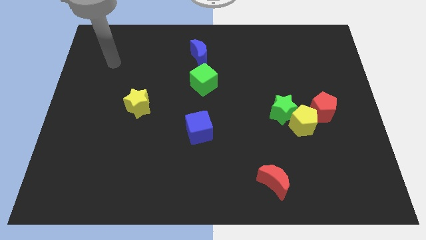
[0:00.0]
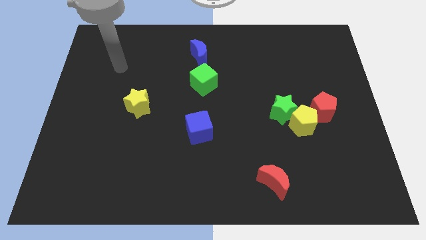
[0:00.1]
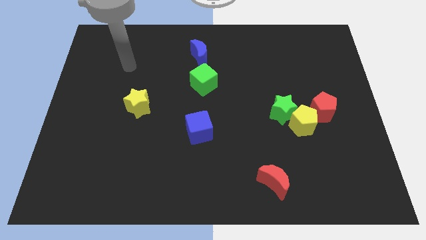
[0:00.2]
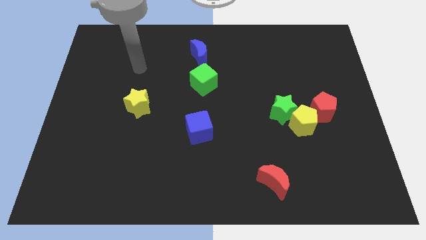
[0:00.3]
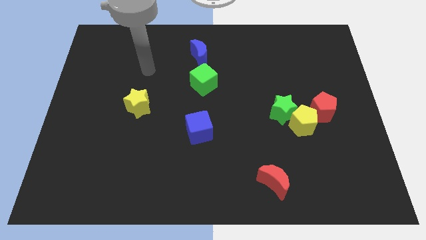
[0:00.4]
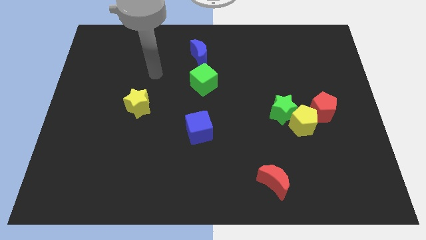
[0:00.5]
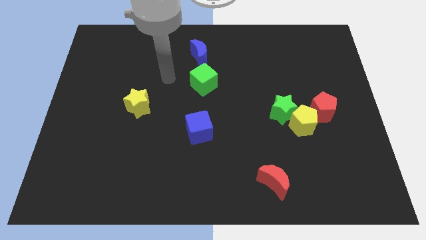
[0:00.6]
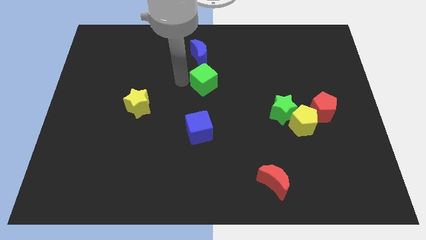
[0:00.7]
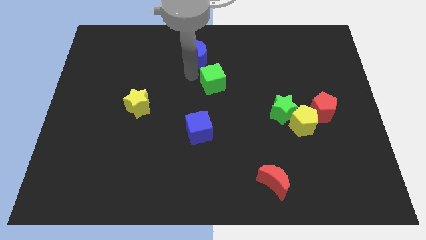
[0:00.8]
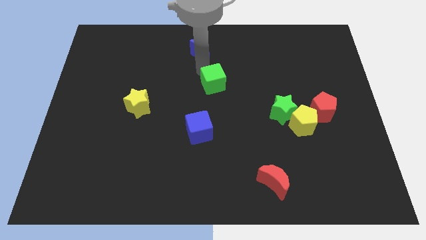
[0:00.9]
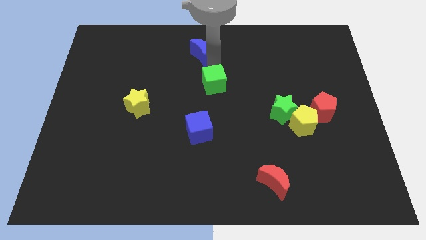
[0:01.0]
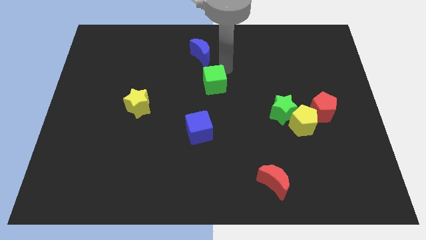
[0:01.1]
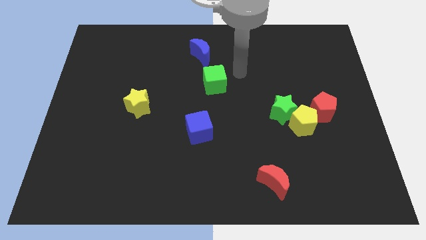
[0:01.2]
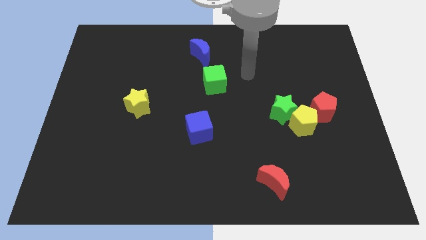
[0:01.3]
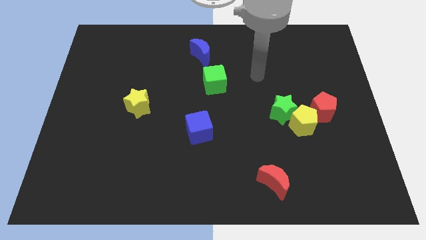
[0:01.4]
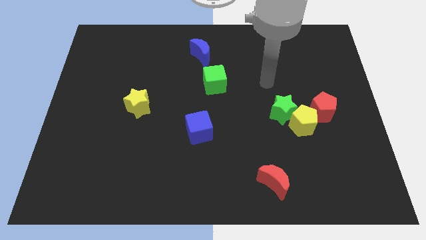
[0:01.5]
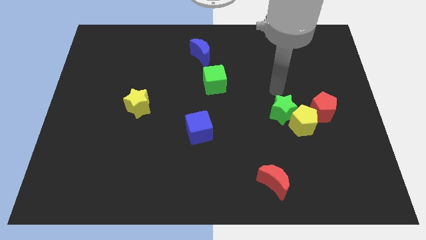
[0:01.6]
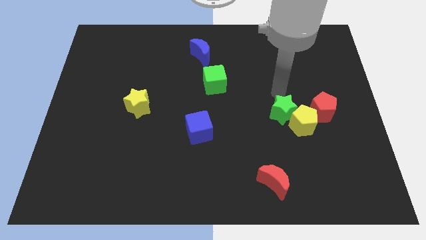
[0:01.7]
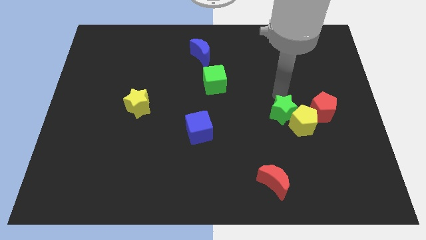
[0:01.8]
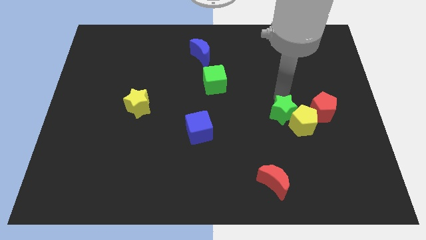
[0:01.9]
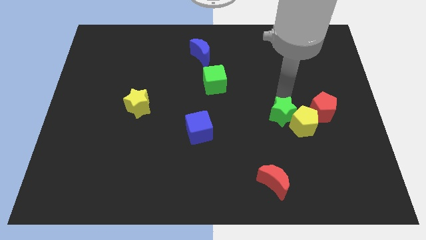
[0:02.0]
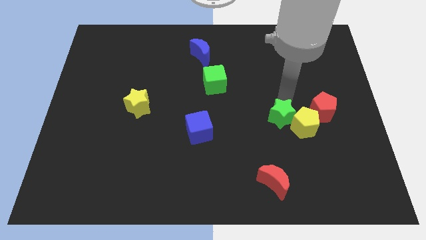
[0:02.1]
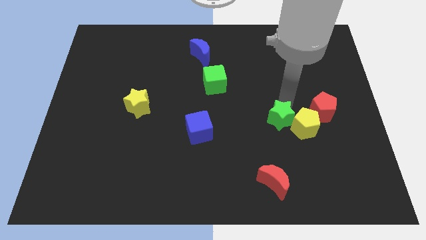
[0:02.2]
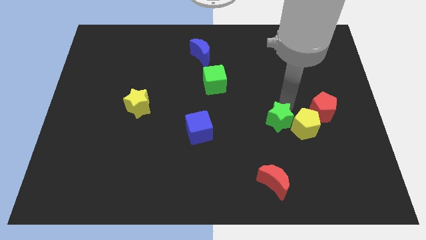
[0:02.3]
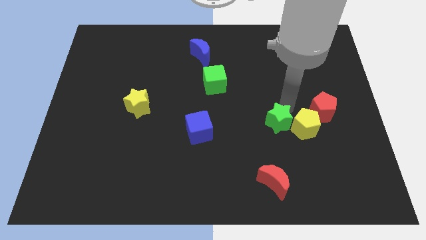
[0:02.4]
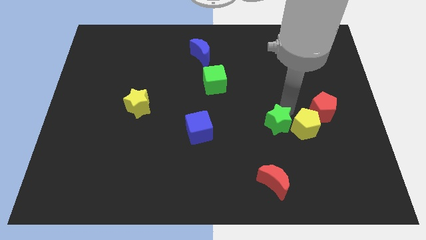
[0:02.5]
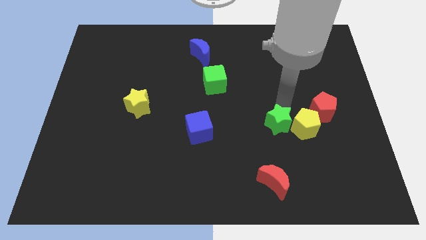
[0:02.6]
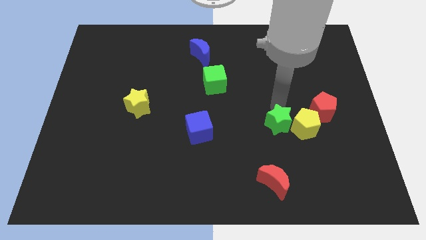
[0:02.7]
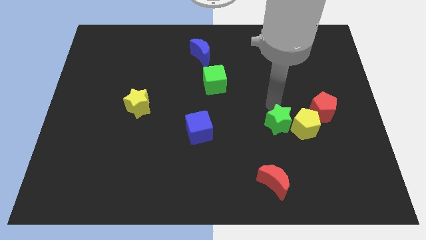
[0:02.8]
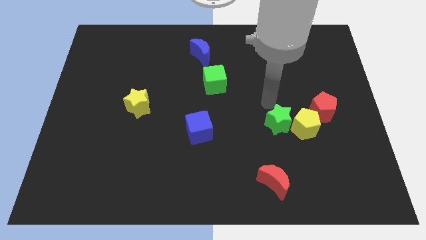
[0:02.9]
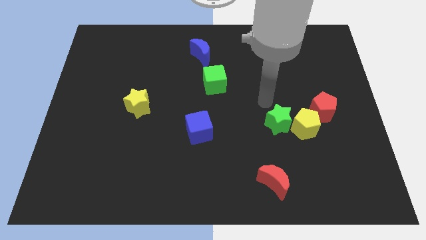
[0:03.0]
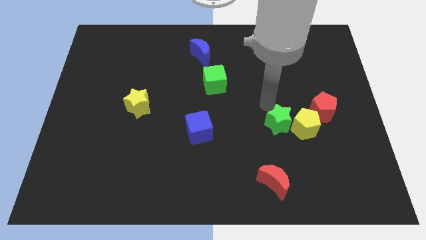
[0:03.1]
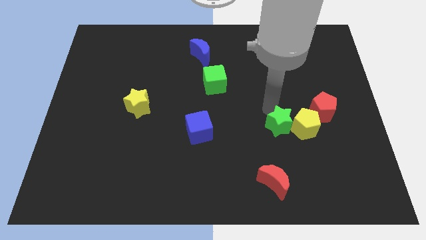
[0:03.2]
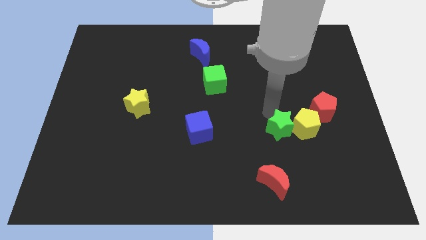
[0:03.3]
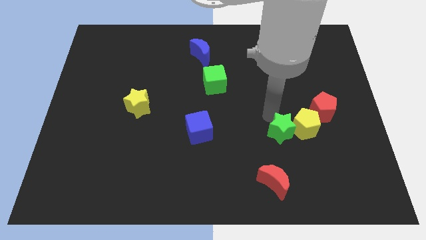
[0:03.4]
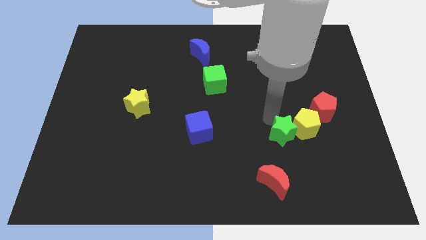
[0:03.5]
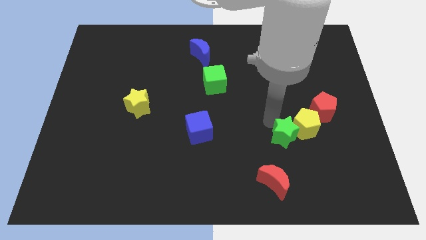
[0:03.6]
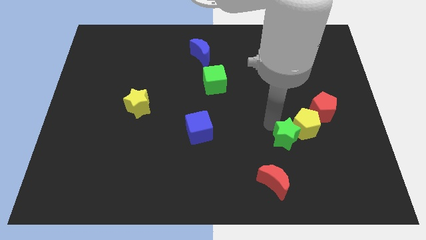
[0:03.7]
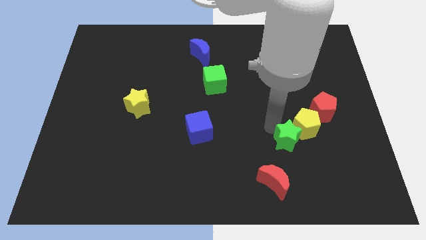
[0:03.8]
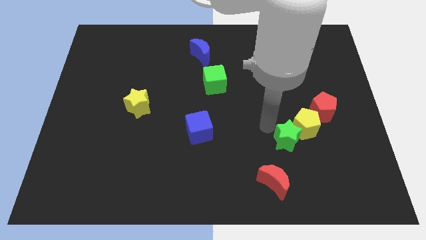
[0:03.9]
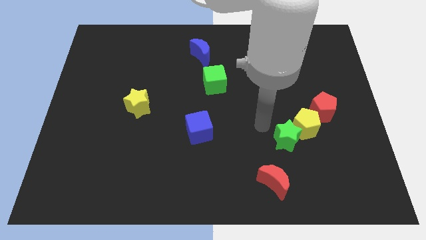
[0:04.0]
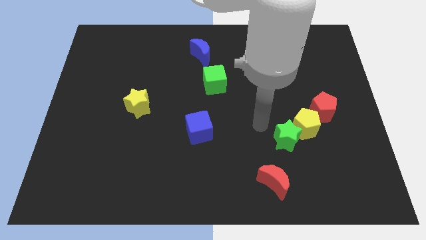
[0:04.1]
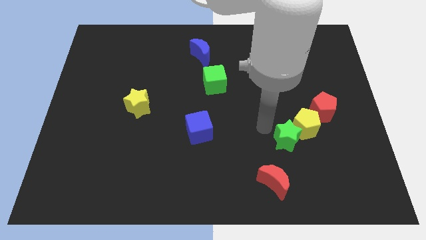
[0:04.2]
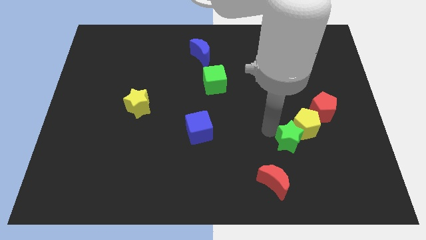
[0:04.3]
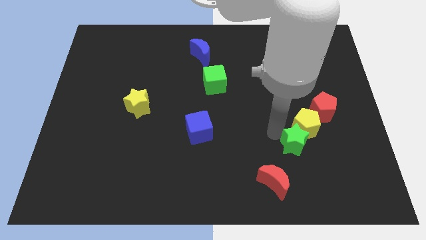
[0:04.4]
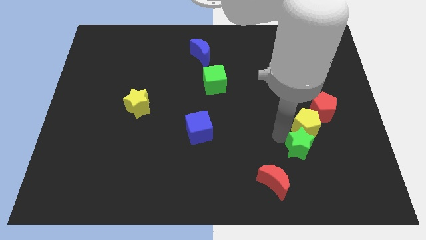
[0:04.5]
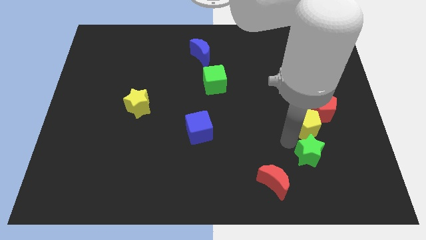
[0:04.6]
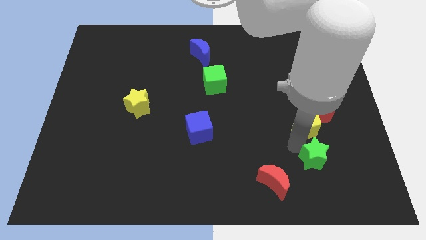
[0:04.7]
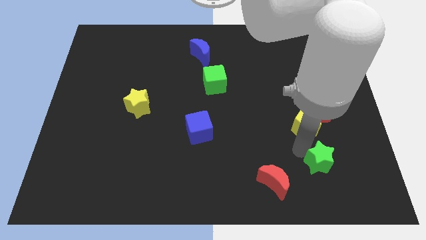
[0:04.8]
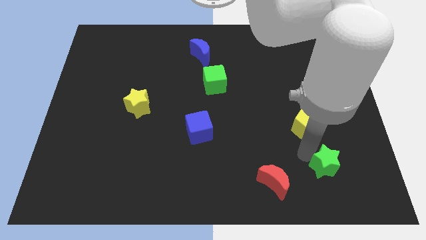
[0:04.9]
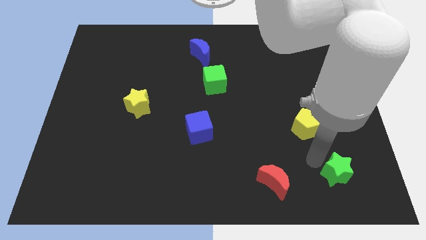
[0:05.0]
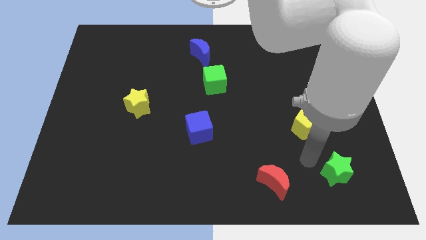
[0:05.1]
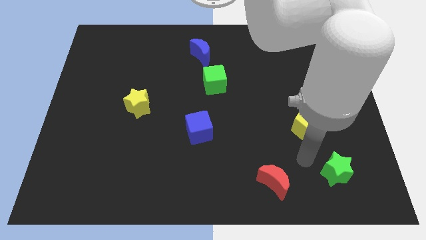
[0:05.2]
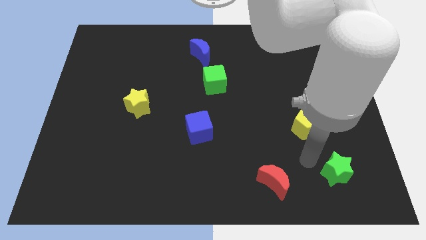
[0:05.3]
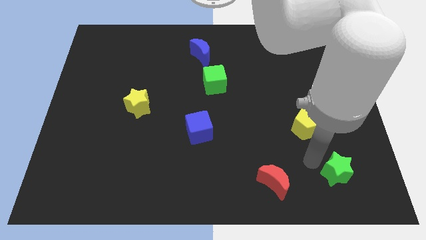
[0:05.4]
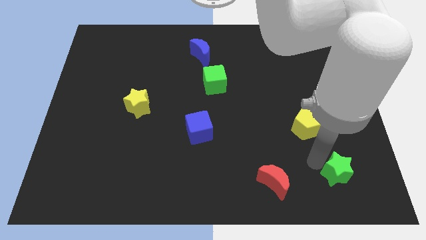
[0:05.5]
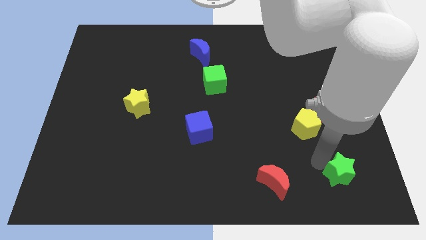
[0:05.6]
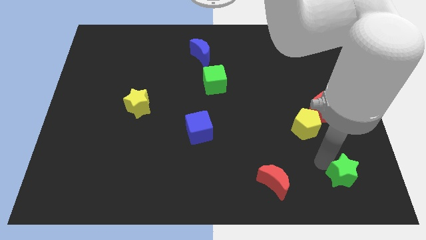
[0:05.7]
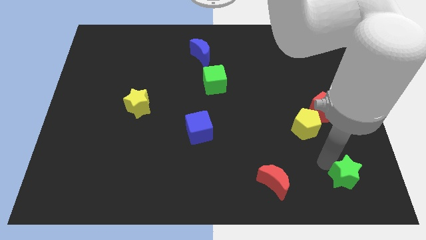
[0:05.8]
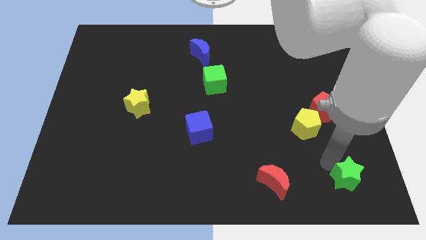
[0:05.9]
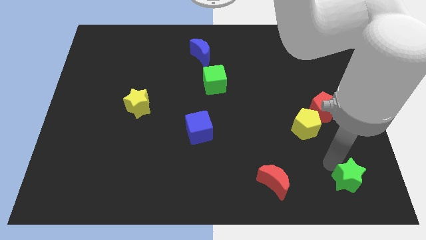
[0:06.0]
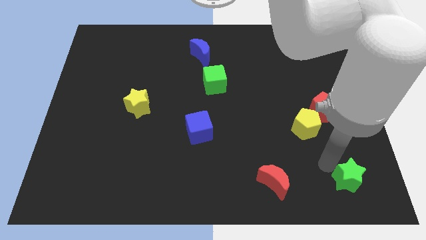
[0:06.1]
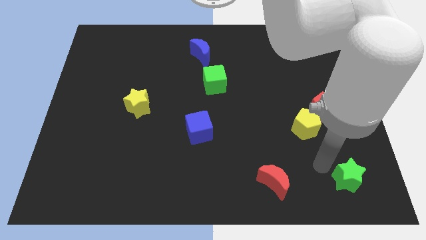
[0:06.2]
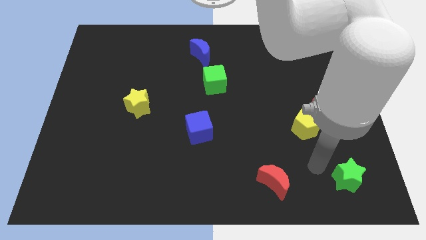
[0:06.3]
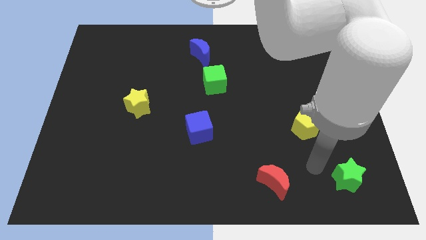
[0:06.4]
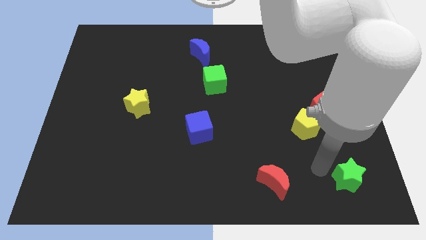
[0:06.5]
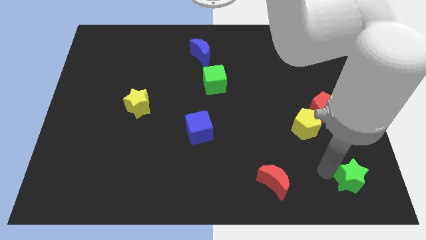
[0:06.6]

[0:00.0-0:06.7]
put the green star to the bottom right corner
